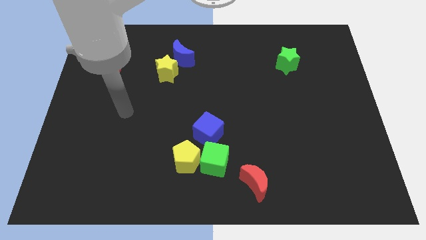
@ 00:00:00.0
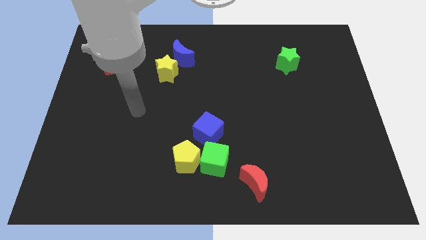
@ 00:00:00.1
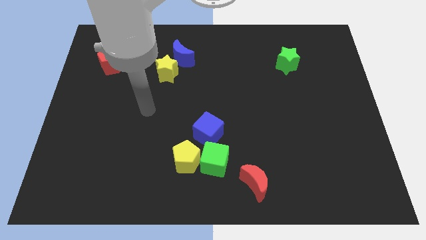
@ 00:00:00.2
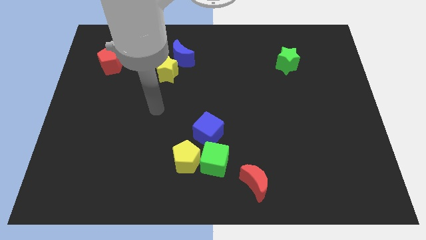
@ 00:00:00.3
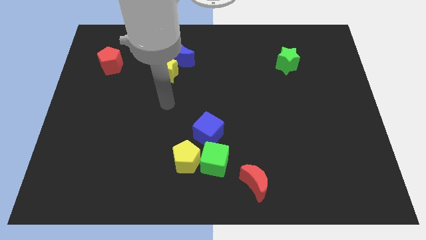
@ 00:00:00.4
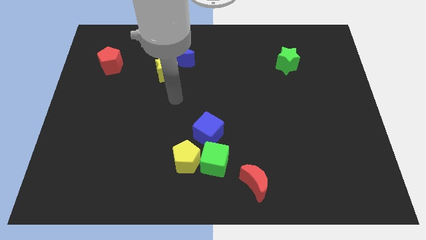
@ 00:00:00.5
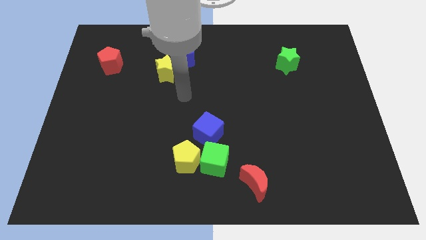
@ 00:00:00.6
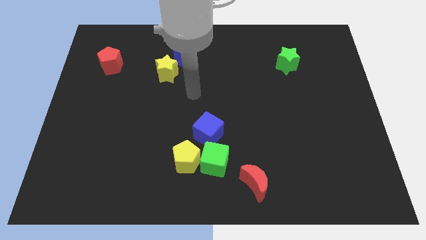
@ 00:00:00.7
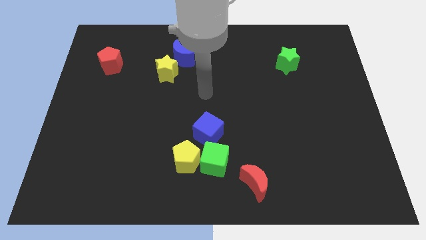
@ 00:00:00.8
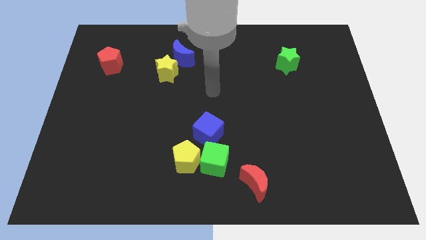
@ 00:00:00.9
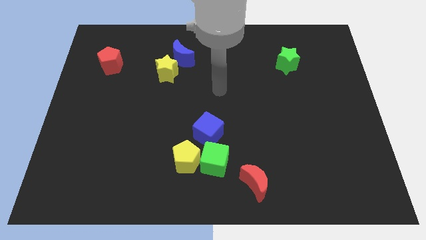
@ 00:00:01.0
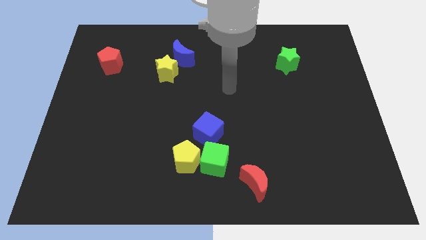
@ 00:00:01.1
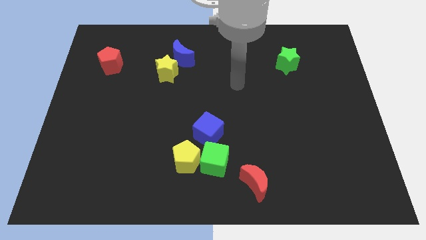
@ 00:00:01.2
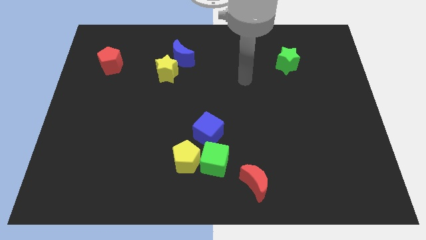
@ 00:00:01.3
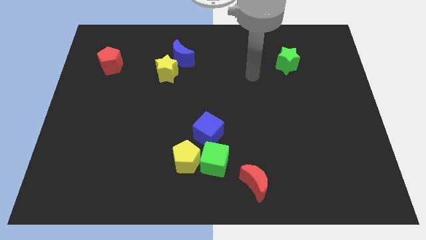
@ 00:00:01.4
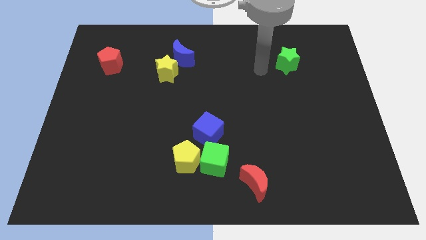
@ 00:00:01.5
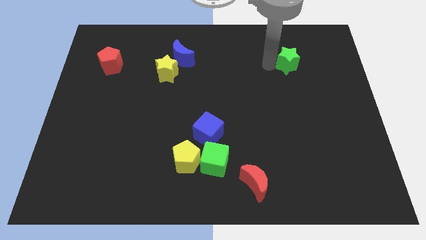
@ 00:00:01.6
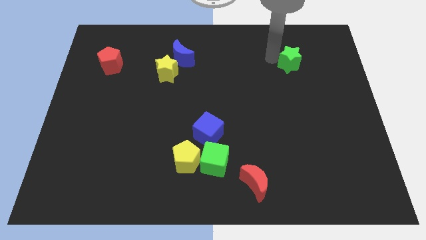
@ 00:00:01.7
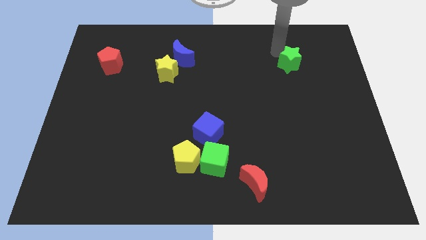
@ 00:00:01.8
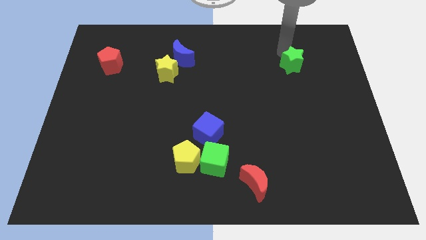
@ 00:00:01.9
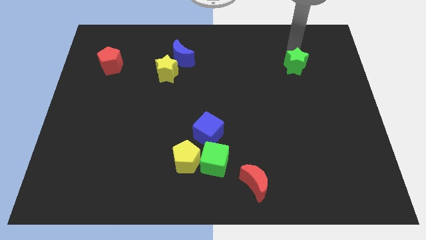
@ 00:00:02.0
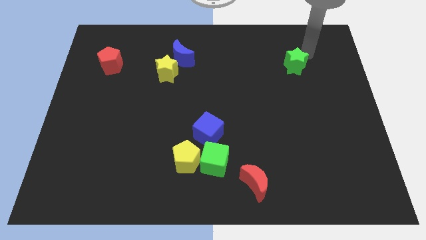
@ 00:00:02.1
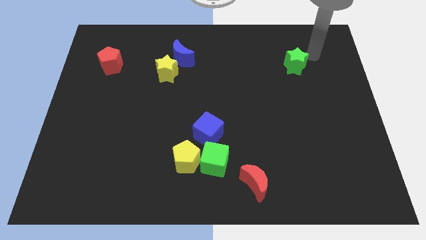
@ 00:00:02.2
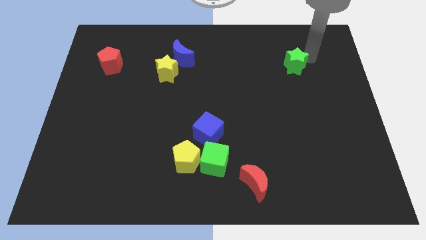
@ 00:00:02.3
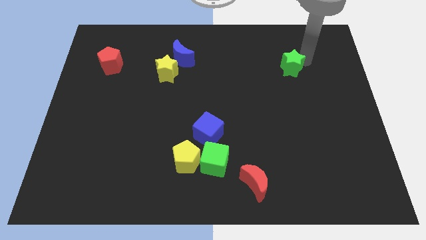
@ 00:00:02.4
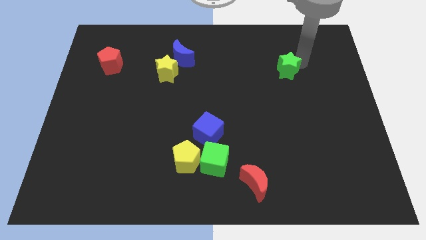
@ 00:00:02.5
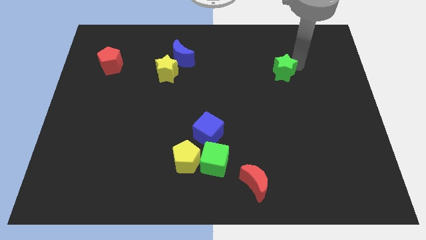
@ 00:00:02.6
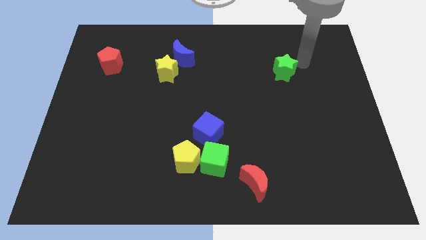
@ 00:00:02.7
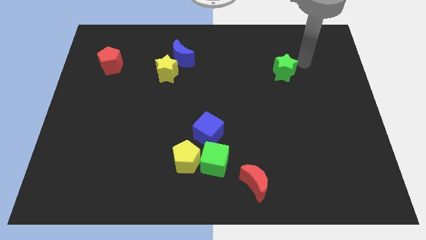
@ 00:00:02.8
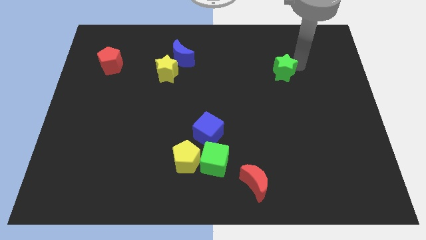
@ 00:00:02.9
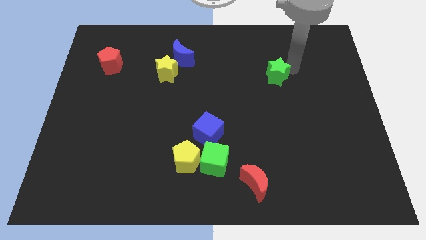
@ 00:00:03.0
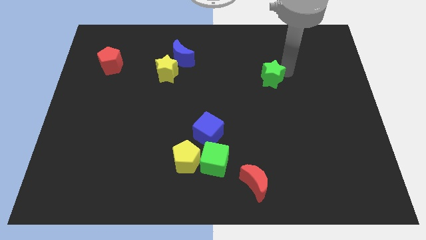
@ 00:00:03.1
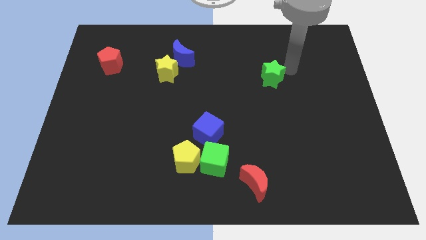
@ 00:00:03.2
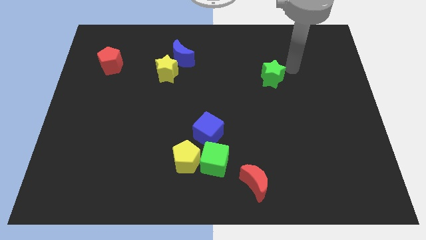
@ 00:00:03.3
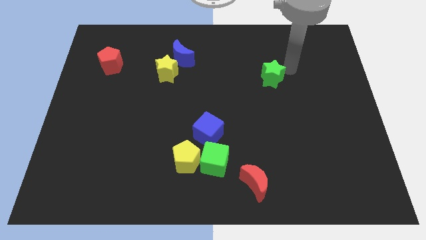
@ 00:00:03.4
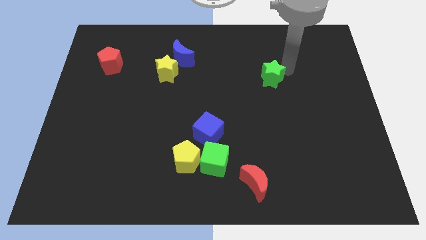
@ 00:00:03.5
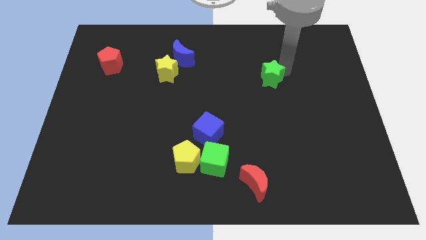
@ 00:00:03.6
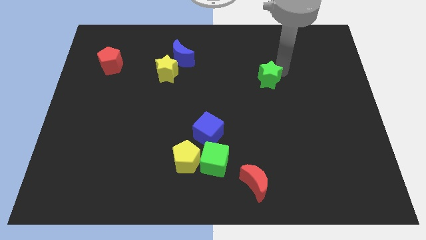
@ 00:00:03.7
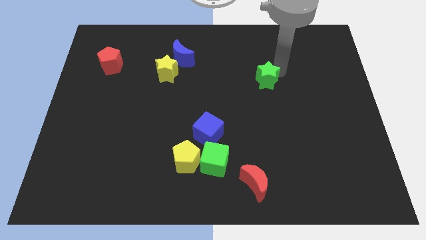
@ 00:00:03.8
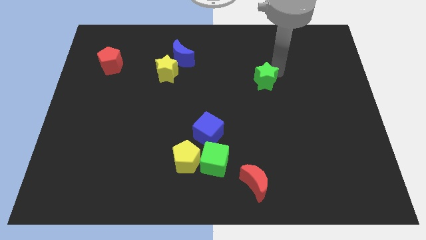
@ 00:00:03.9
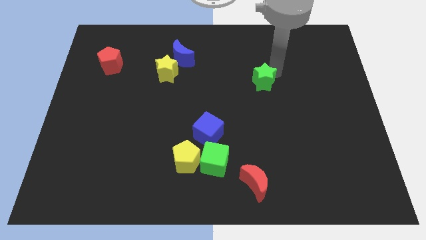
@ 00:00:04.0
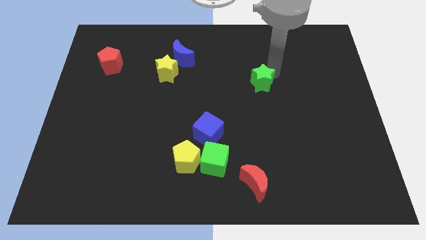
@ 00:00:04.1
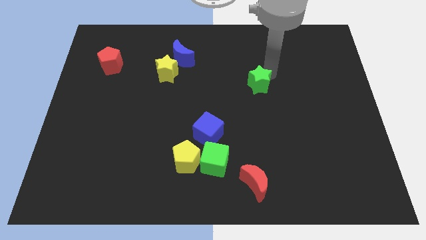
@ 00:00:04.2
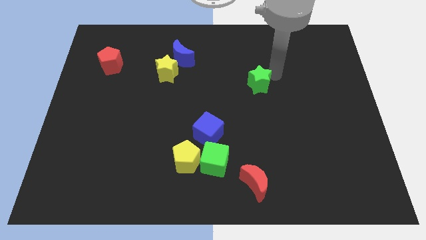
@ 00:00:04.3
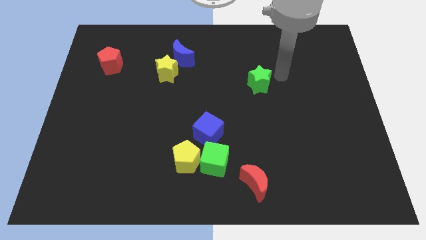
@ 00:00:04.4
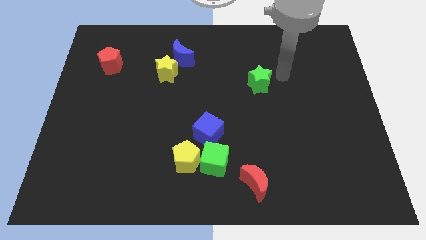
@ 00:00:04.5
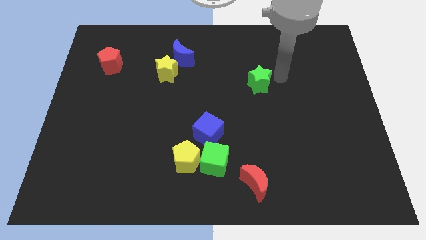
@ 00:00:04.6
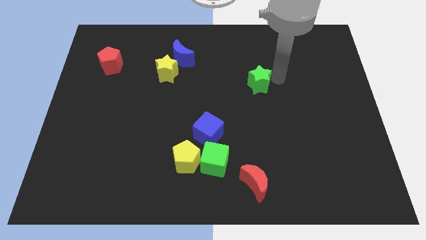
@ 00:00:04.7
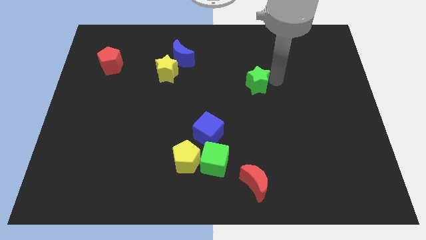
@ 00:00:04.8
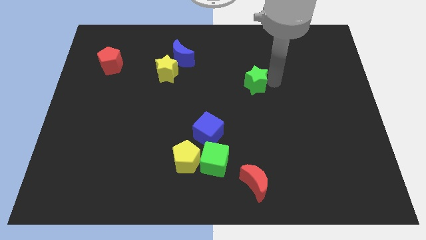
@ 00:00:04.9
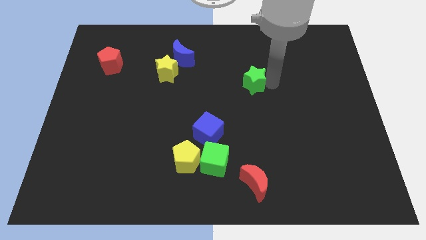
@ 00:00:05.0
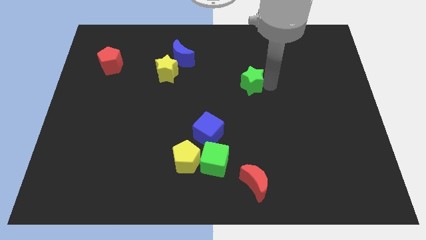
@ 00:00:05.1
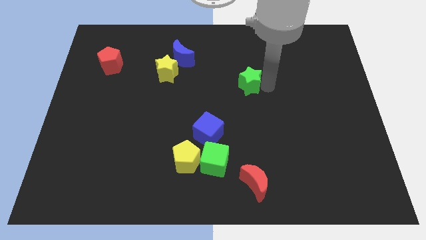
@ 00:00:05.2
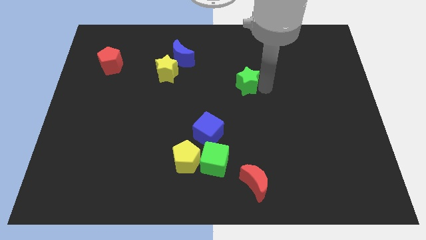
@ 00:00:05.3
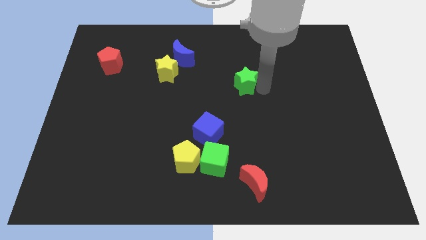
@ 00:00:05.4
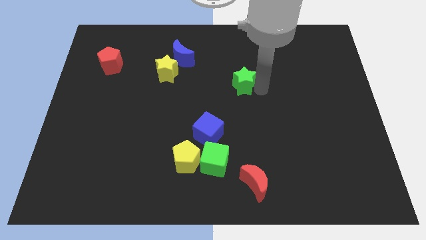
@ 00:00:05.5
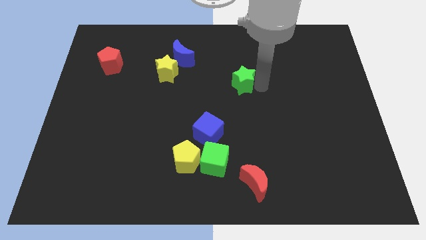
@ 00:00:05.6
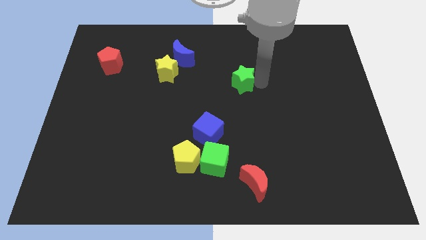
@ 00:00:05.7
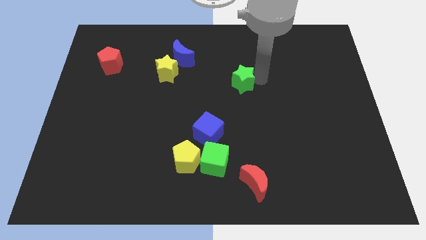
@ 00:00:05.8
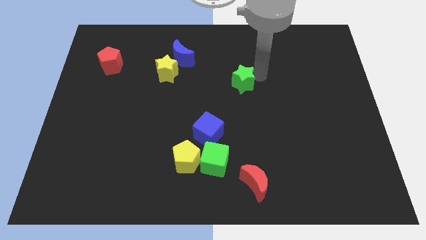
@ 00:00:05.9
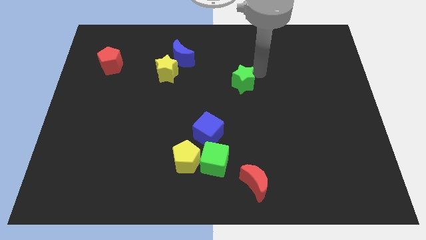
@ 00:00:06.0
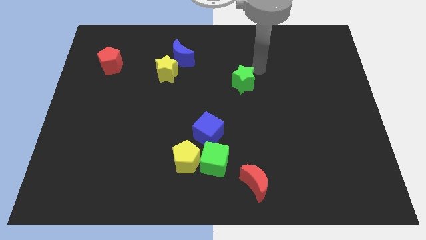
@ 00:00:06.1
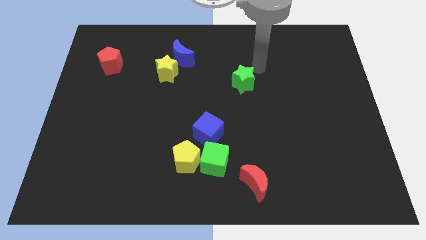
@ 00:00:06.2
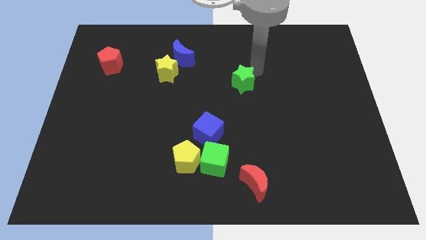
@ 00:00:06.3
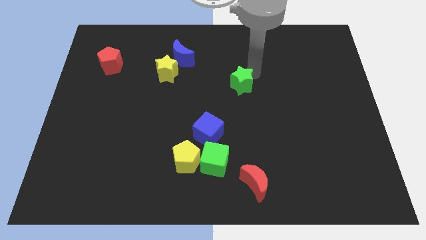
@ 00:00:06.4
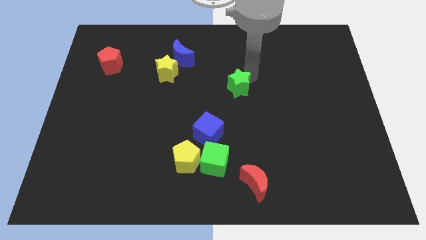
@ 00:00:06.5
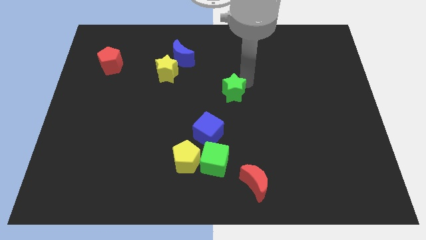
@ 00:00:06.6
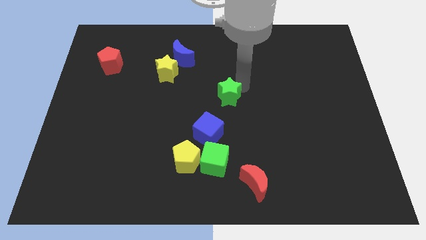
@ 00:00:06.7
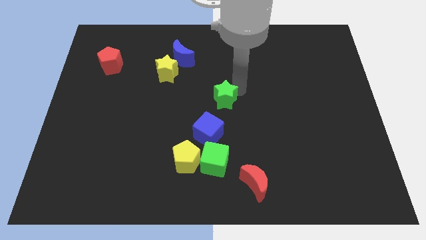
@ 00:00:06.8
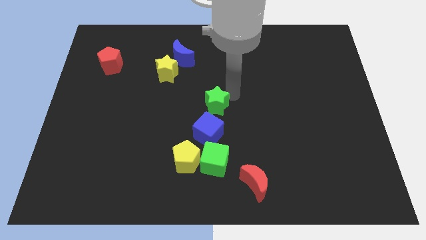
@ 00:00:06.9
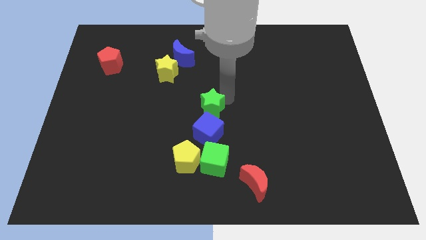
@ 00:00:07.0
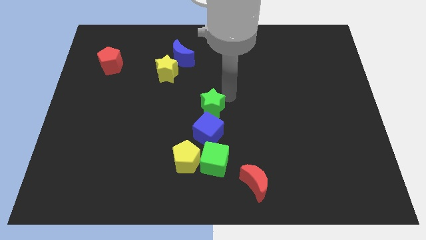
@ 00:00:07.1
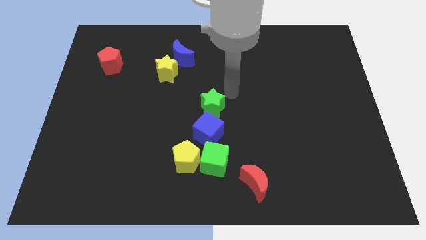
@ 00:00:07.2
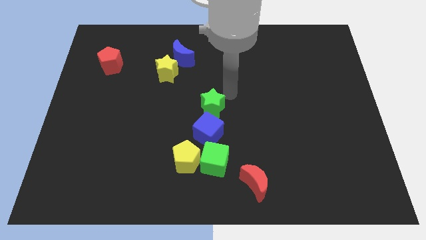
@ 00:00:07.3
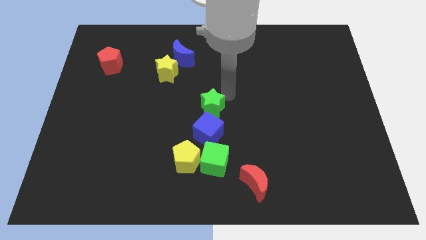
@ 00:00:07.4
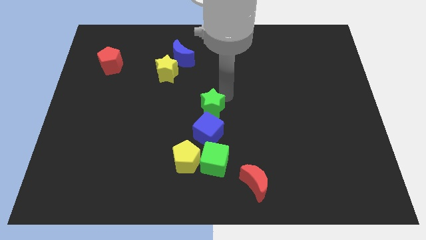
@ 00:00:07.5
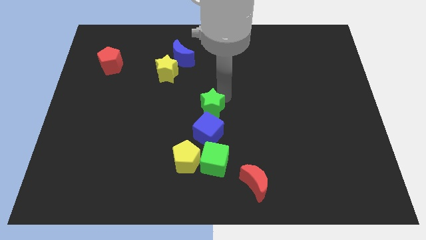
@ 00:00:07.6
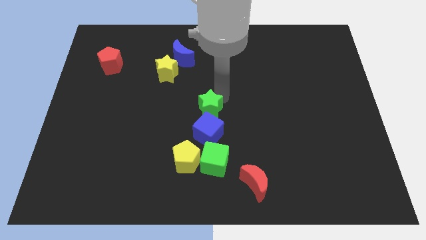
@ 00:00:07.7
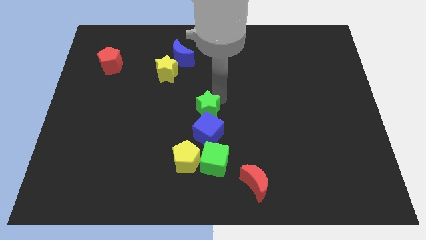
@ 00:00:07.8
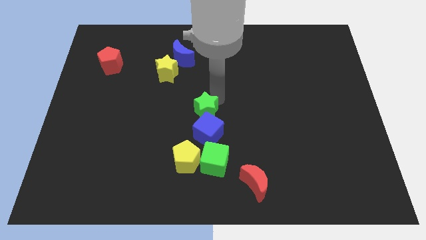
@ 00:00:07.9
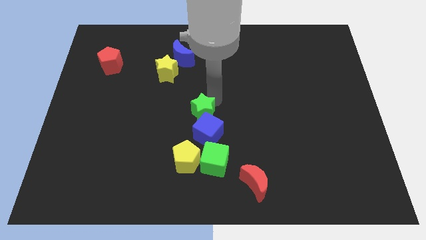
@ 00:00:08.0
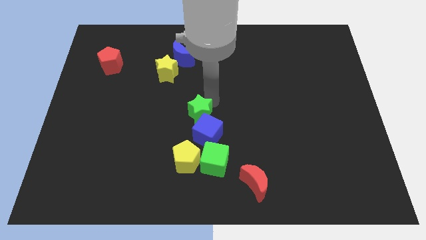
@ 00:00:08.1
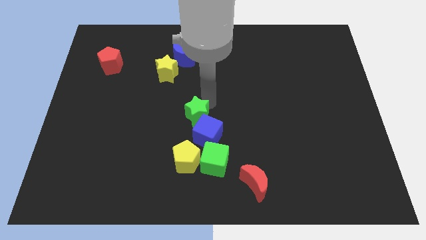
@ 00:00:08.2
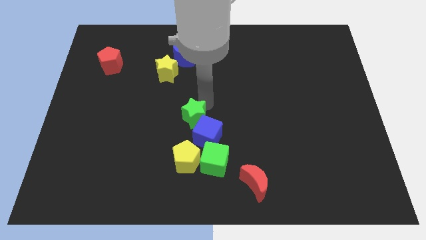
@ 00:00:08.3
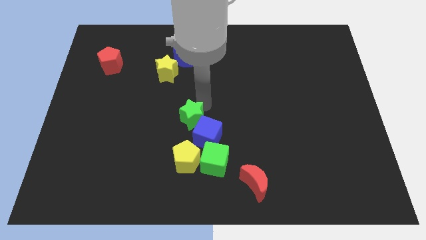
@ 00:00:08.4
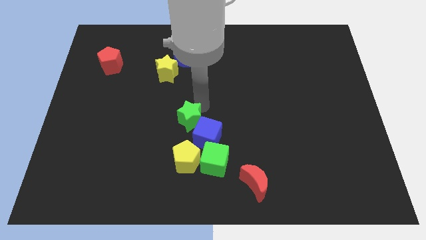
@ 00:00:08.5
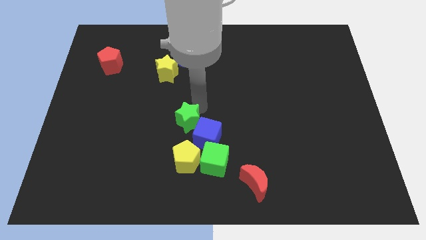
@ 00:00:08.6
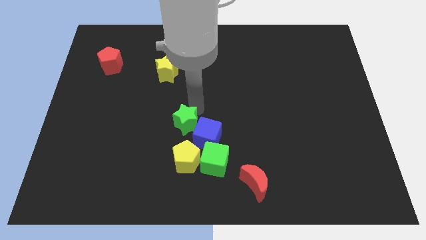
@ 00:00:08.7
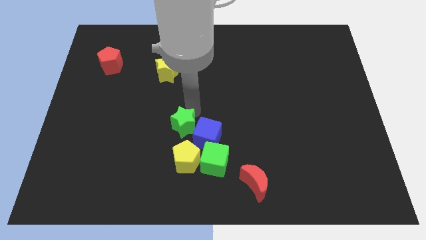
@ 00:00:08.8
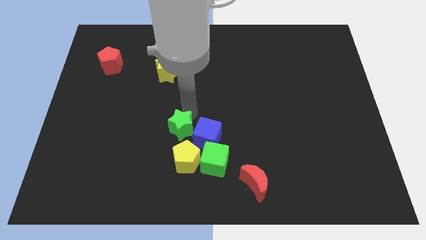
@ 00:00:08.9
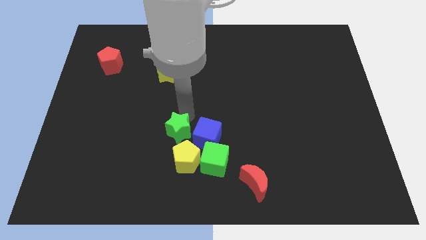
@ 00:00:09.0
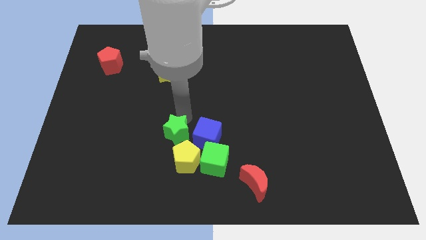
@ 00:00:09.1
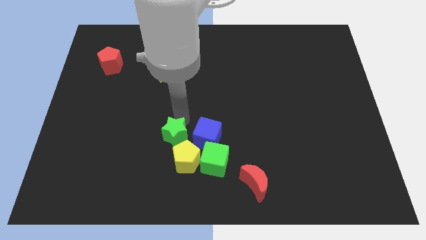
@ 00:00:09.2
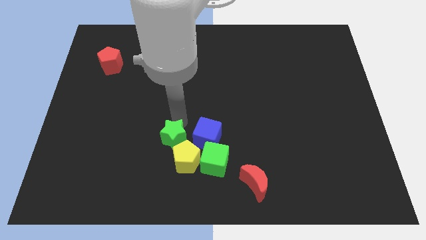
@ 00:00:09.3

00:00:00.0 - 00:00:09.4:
move the green star towards the yellow pentagon
